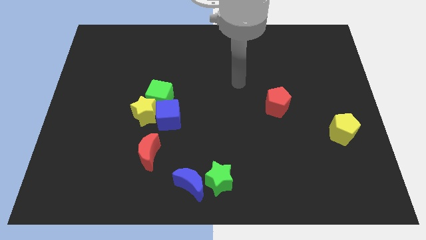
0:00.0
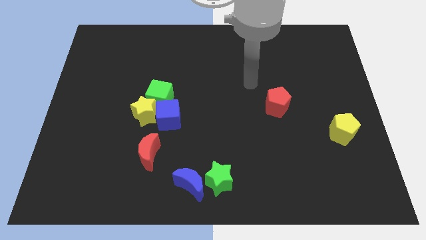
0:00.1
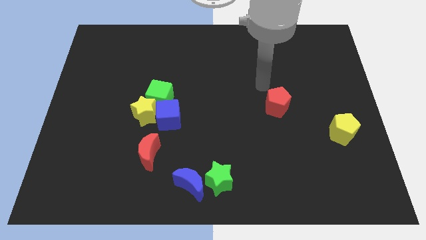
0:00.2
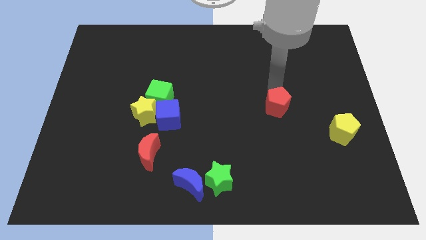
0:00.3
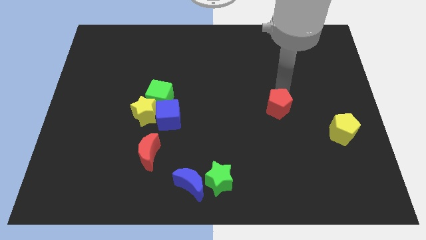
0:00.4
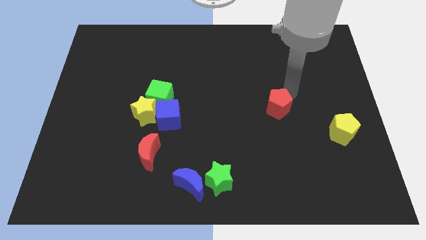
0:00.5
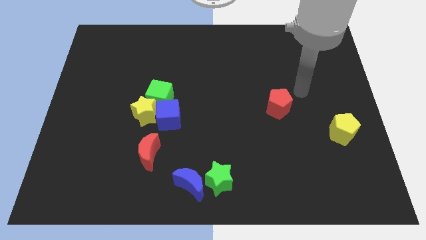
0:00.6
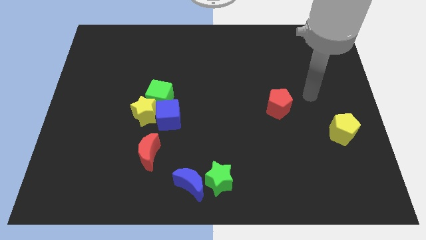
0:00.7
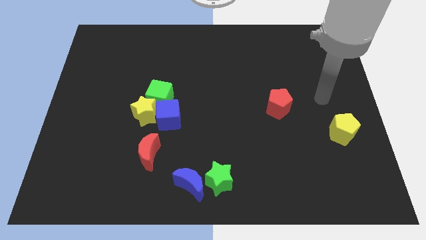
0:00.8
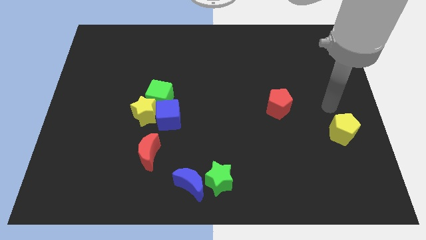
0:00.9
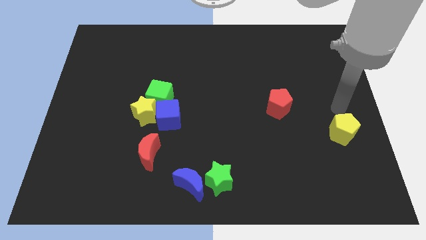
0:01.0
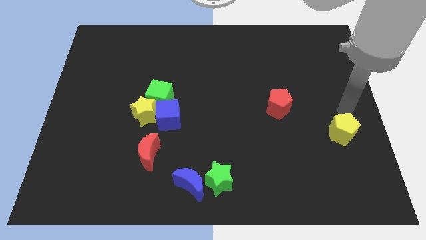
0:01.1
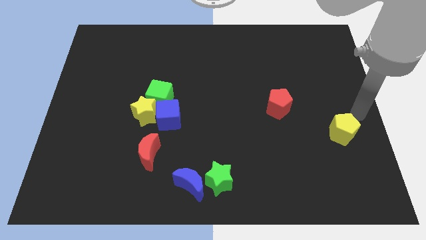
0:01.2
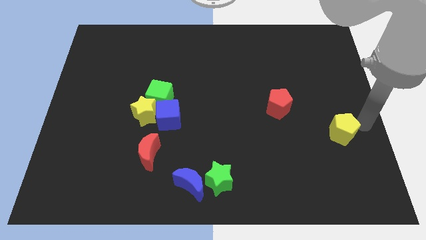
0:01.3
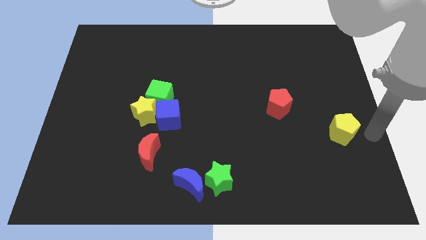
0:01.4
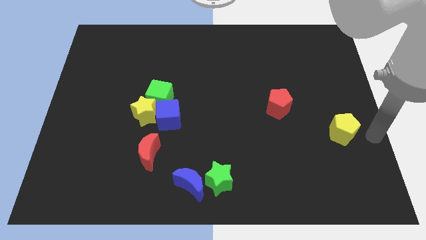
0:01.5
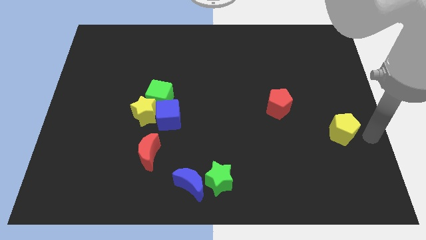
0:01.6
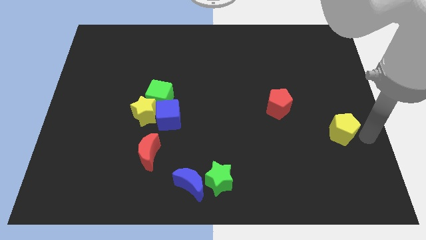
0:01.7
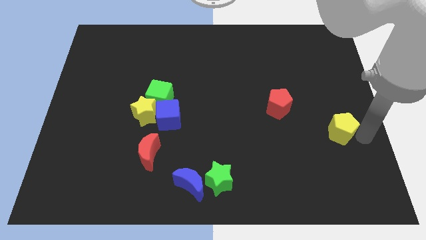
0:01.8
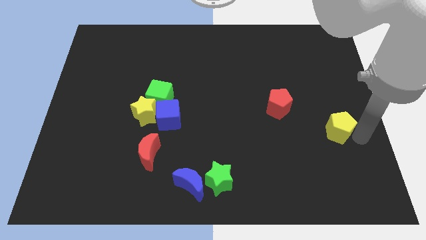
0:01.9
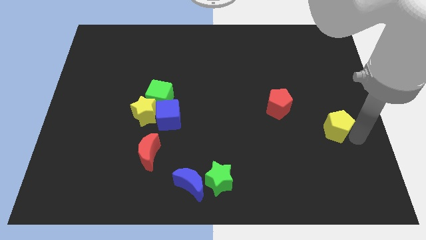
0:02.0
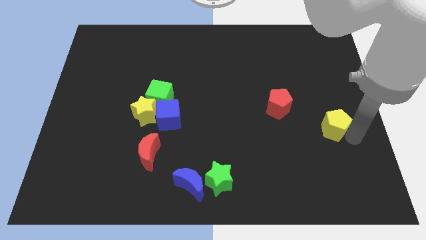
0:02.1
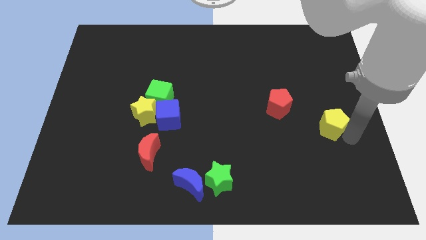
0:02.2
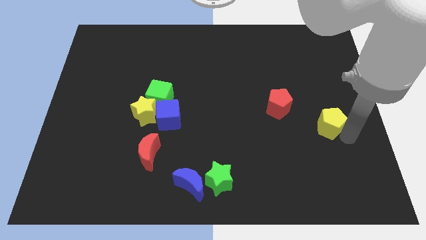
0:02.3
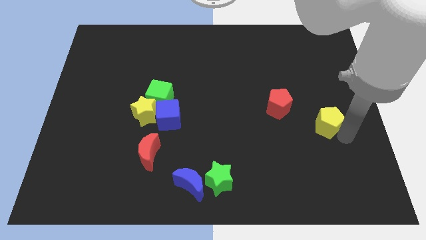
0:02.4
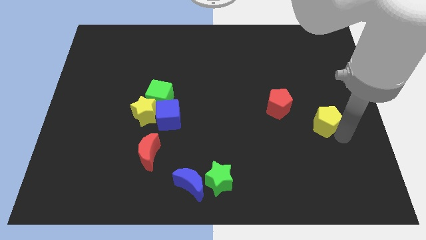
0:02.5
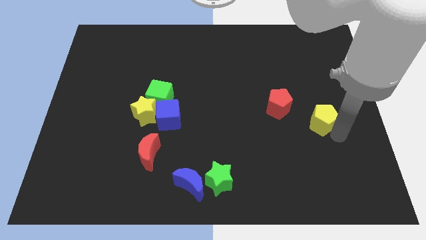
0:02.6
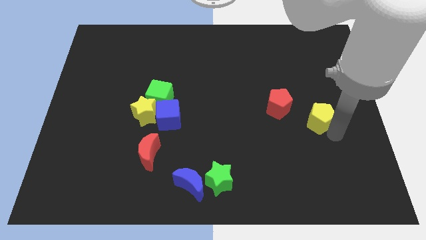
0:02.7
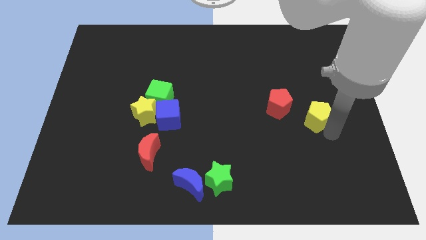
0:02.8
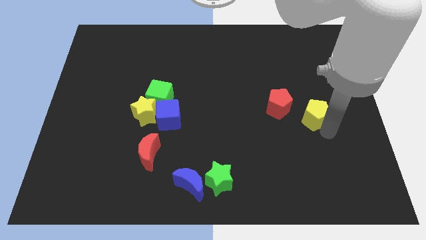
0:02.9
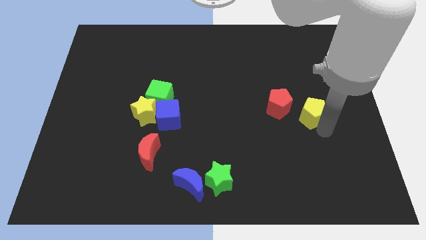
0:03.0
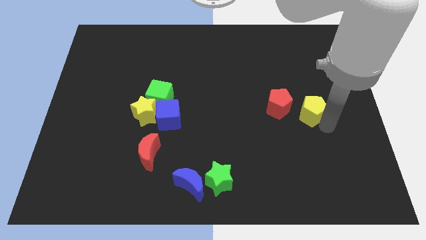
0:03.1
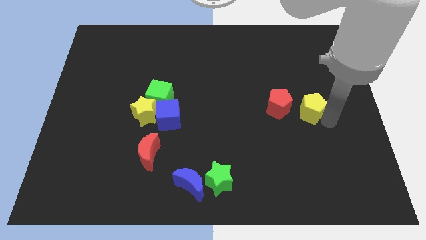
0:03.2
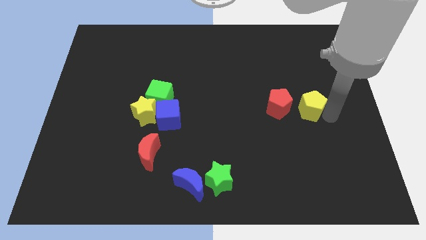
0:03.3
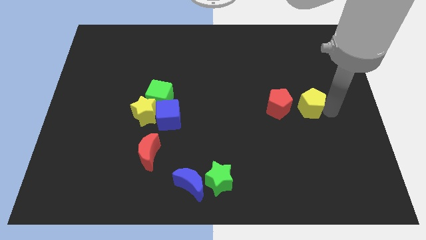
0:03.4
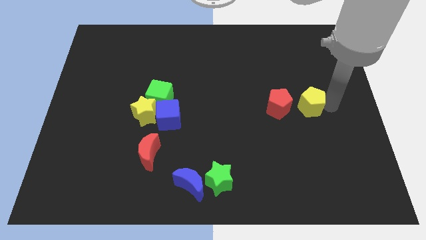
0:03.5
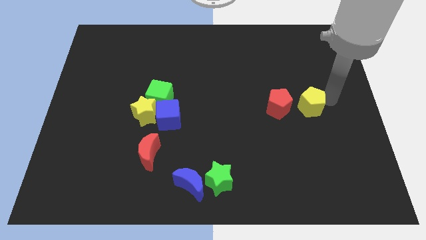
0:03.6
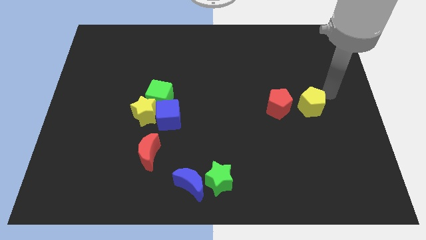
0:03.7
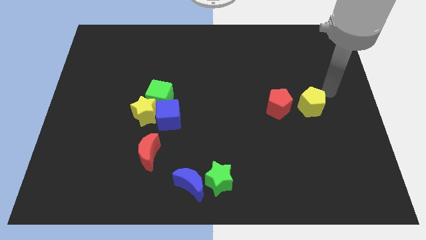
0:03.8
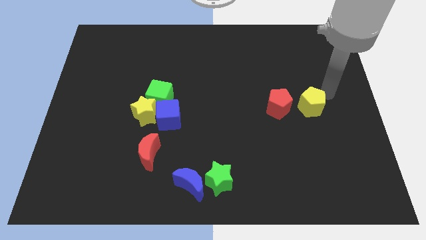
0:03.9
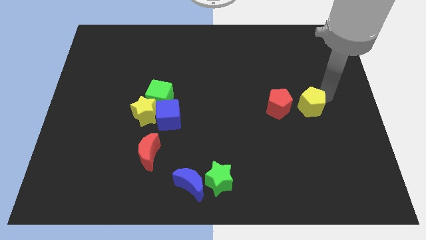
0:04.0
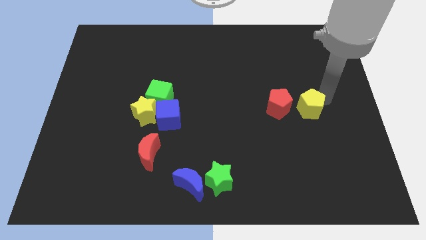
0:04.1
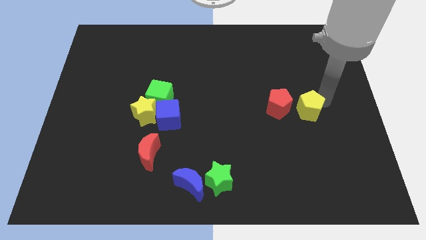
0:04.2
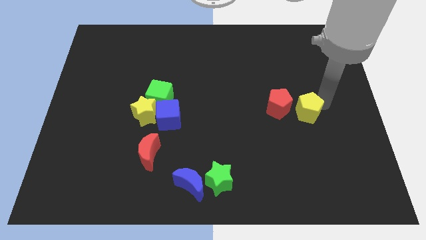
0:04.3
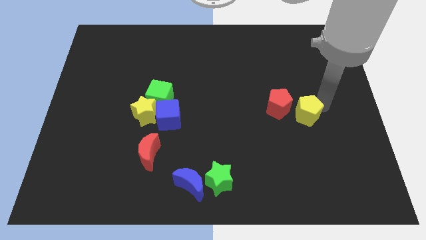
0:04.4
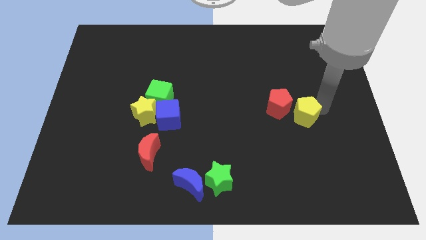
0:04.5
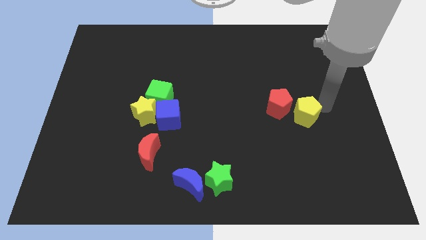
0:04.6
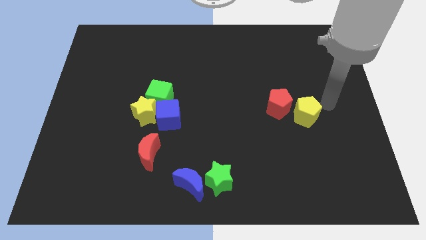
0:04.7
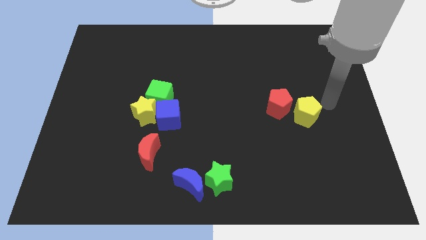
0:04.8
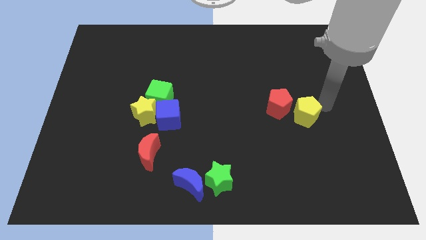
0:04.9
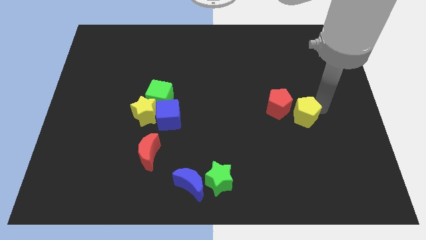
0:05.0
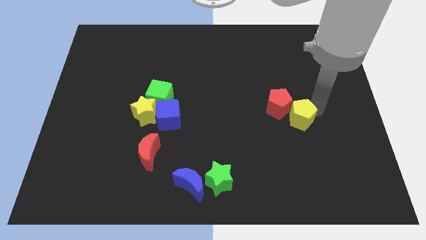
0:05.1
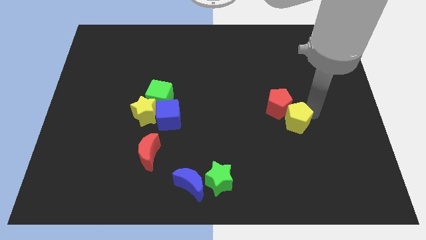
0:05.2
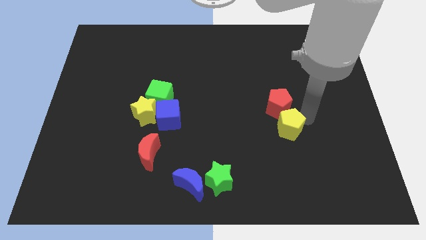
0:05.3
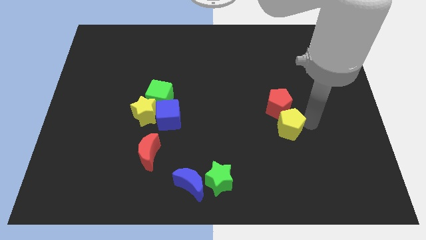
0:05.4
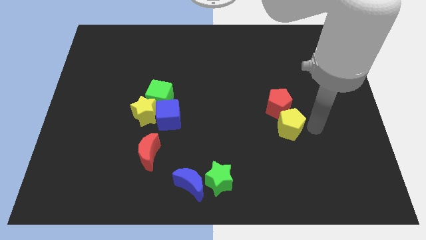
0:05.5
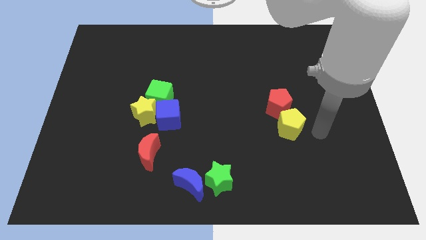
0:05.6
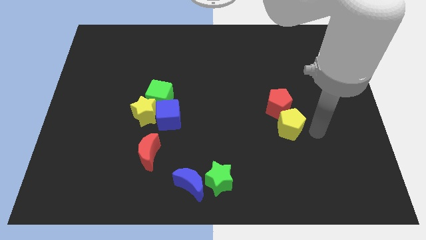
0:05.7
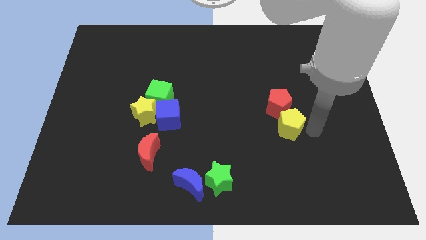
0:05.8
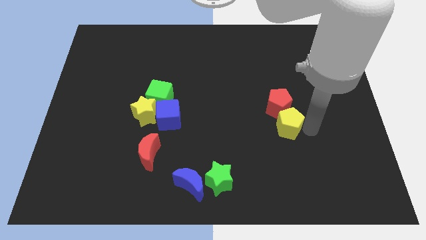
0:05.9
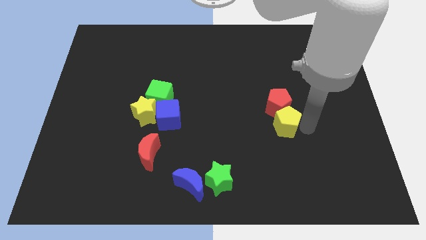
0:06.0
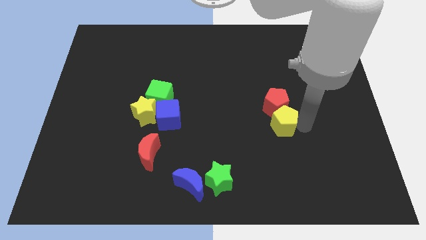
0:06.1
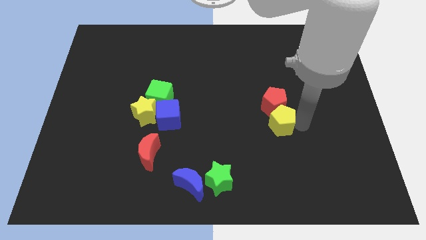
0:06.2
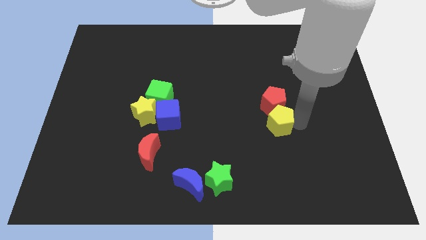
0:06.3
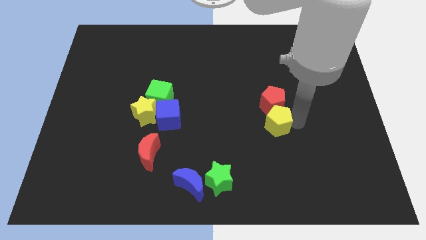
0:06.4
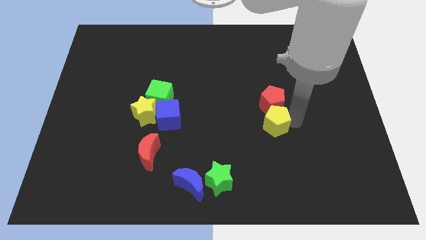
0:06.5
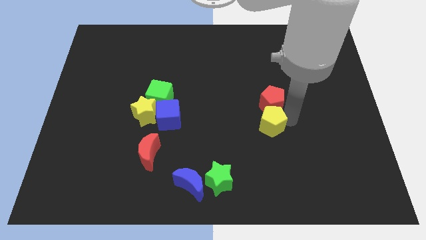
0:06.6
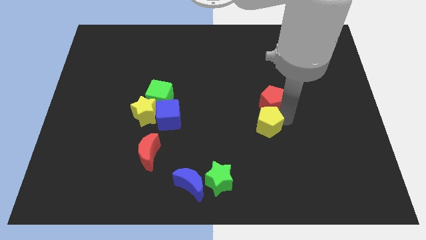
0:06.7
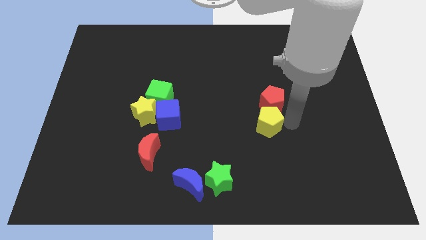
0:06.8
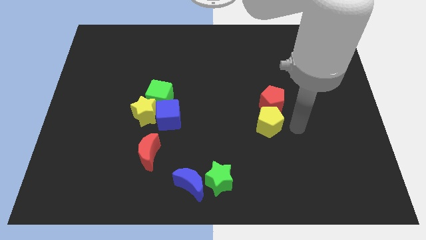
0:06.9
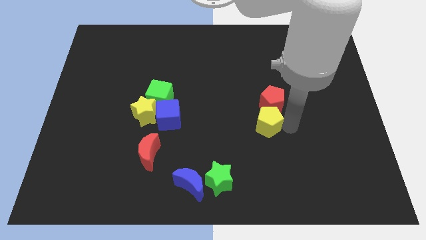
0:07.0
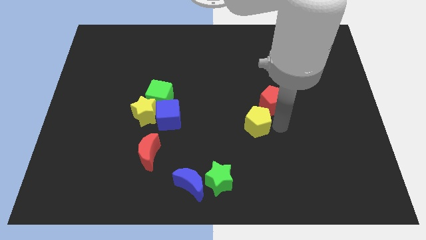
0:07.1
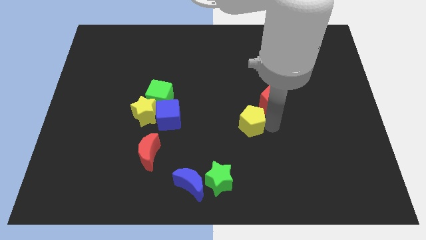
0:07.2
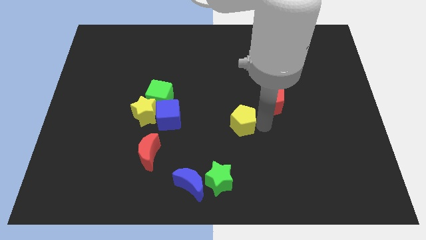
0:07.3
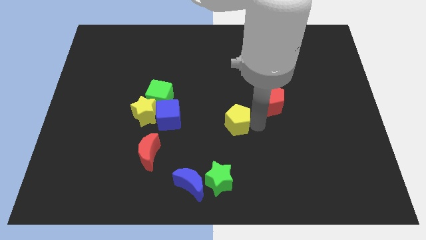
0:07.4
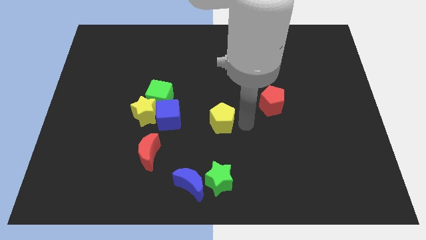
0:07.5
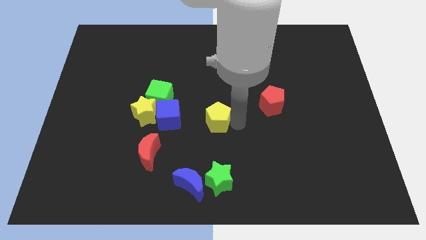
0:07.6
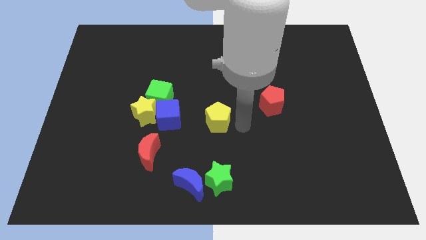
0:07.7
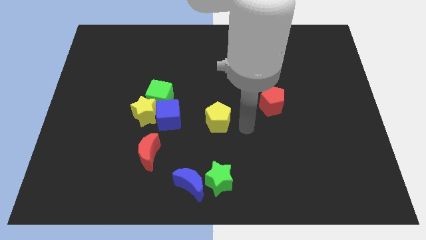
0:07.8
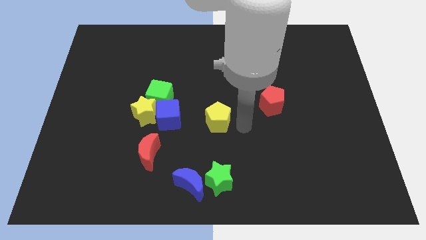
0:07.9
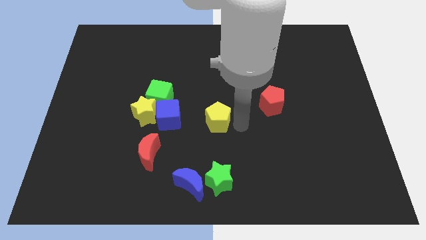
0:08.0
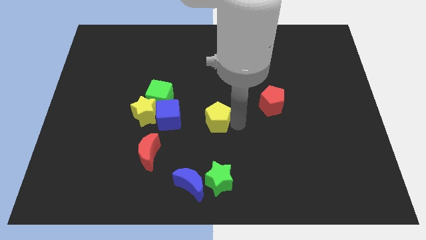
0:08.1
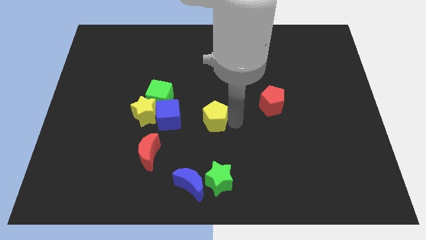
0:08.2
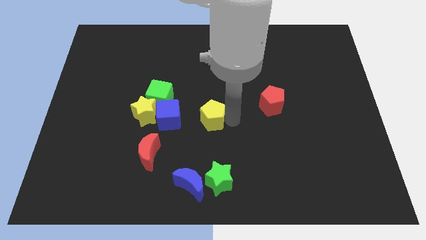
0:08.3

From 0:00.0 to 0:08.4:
push the yellow pentagon to the right of the yellow star
